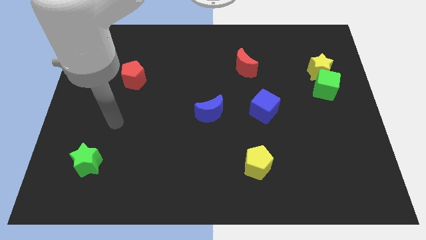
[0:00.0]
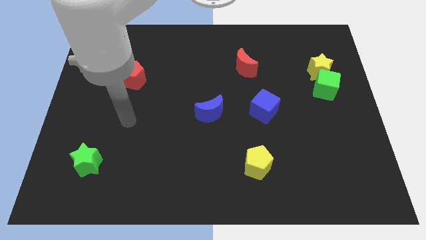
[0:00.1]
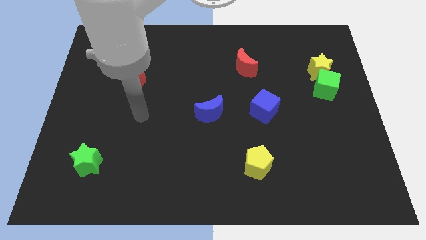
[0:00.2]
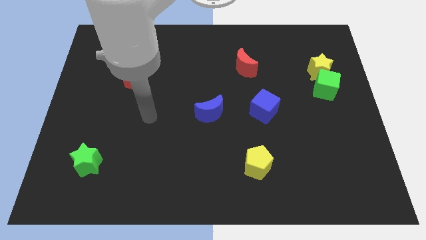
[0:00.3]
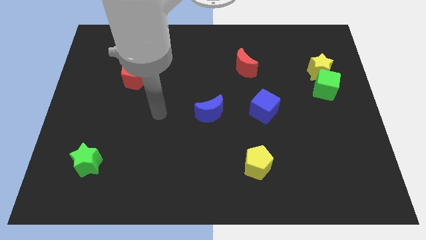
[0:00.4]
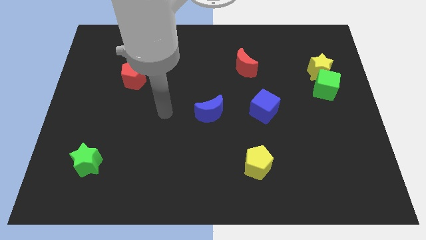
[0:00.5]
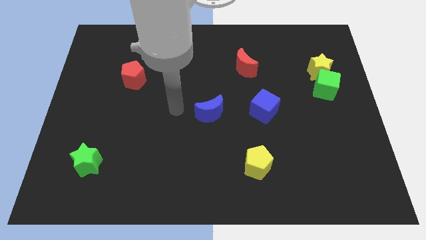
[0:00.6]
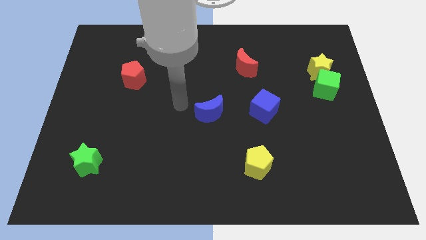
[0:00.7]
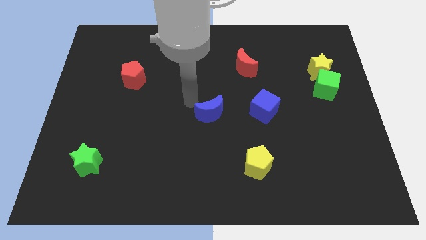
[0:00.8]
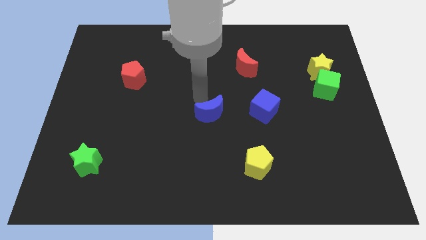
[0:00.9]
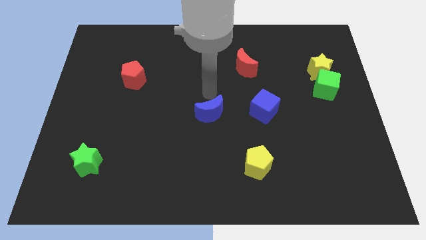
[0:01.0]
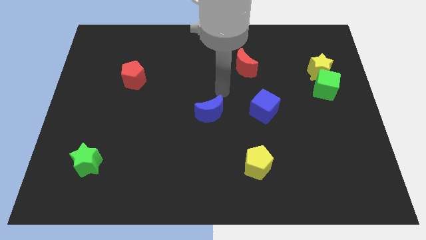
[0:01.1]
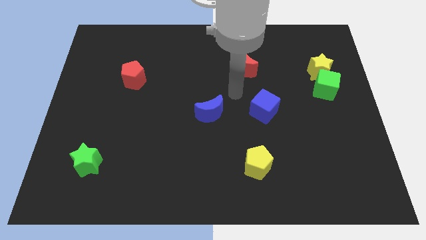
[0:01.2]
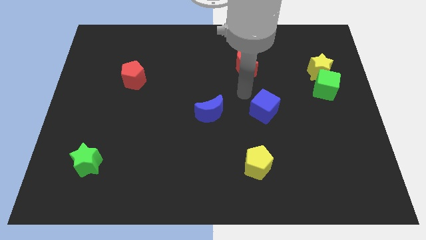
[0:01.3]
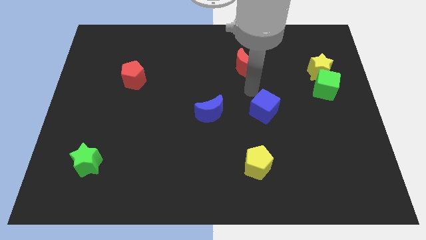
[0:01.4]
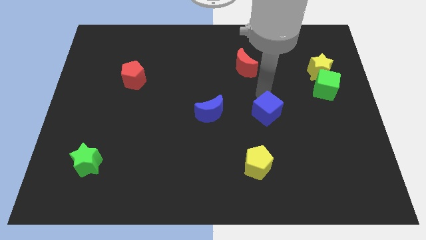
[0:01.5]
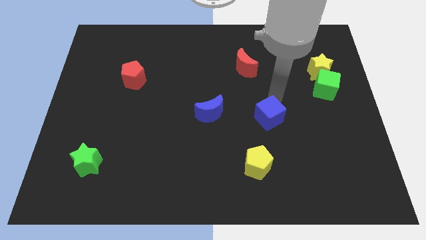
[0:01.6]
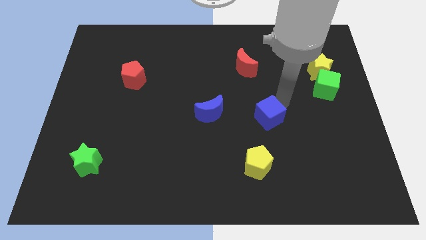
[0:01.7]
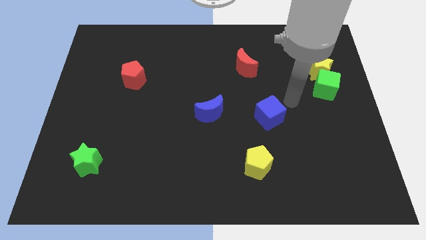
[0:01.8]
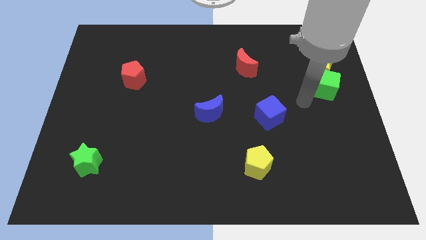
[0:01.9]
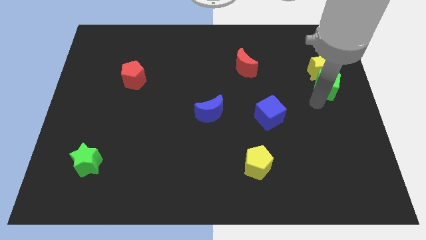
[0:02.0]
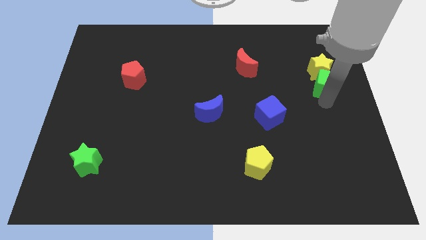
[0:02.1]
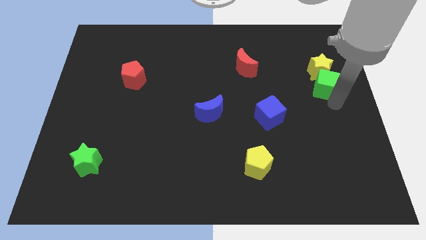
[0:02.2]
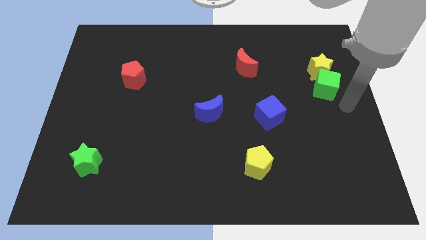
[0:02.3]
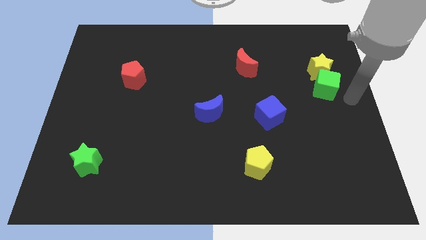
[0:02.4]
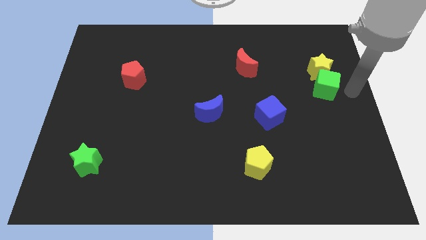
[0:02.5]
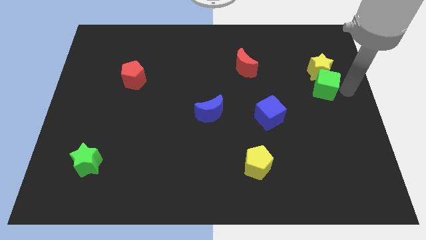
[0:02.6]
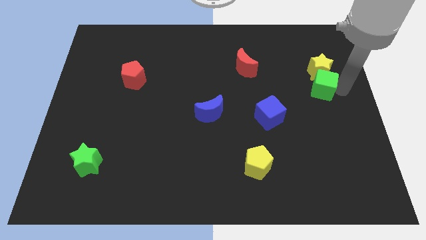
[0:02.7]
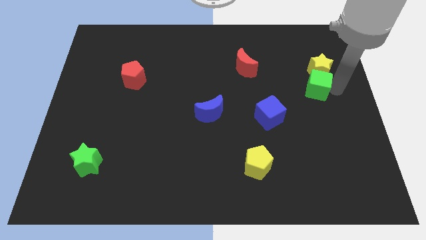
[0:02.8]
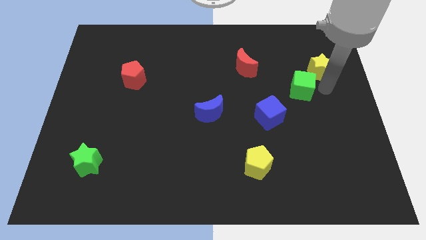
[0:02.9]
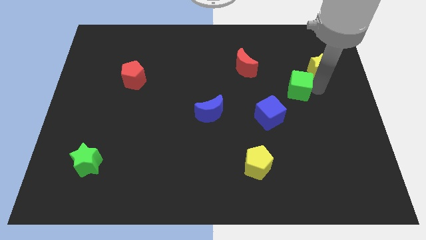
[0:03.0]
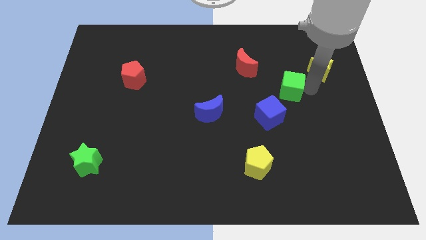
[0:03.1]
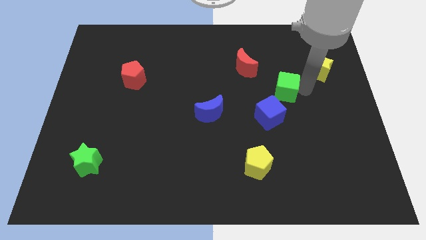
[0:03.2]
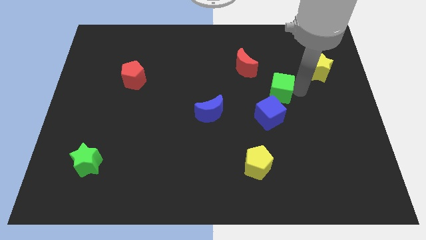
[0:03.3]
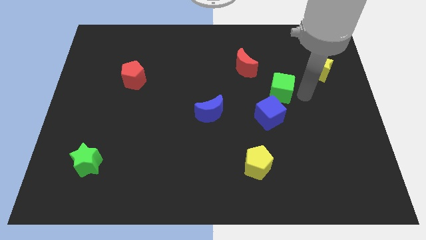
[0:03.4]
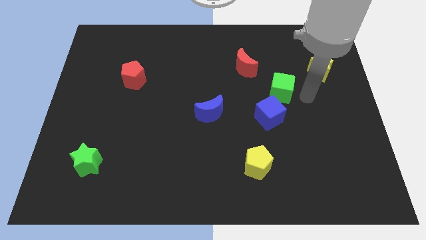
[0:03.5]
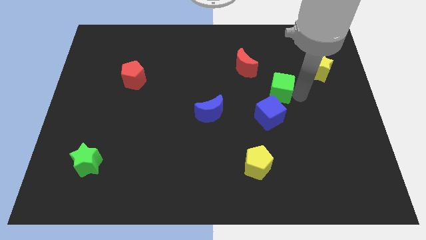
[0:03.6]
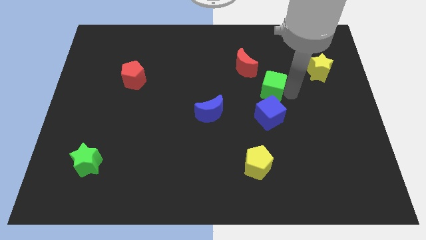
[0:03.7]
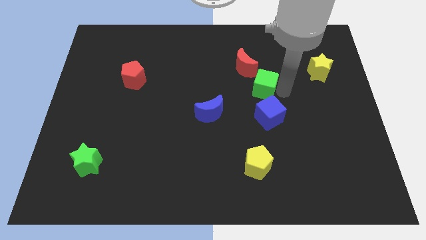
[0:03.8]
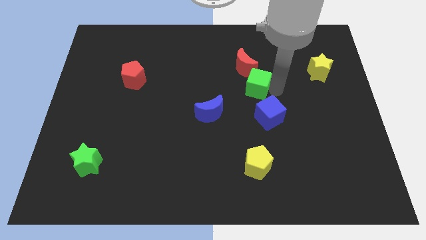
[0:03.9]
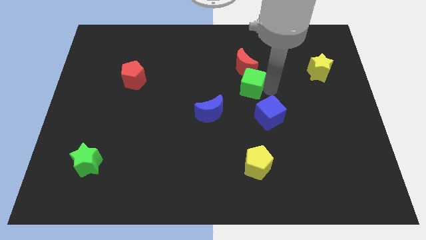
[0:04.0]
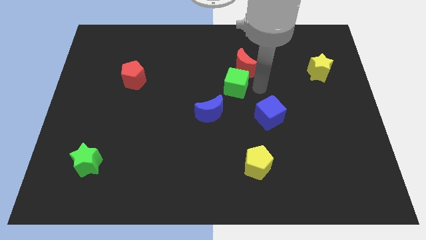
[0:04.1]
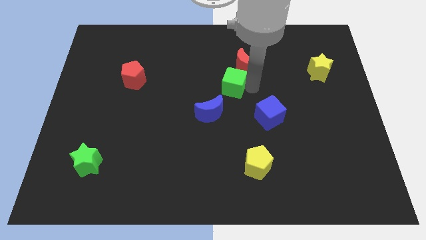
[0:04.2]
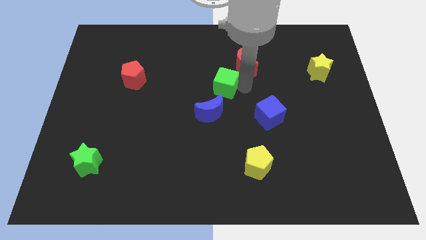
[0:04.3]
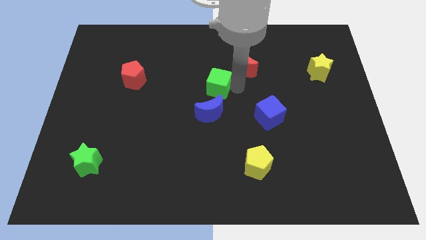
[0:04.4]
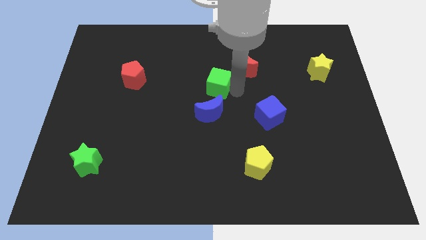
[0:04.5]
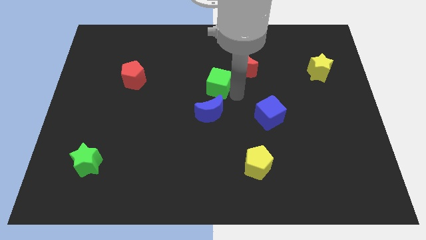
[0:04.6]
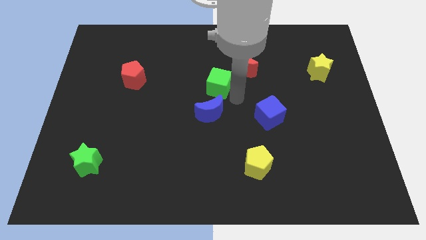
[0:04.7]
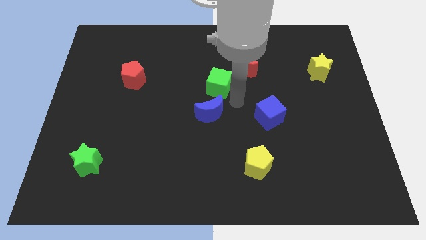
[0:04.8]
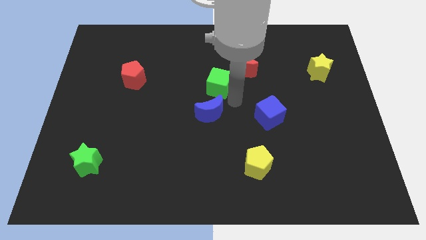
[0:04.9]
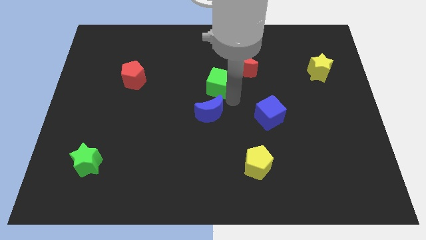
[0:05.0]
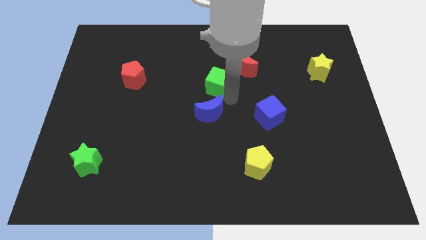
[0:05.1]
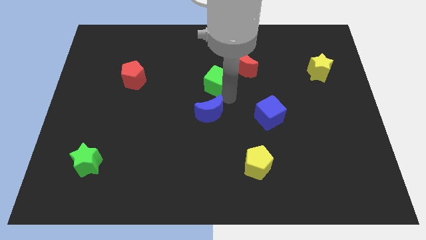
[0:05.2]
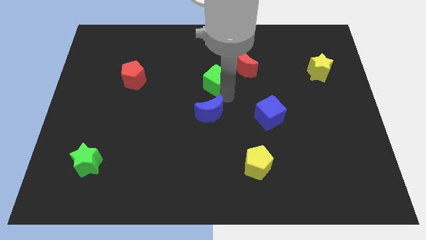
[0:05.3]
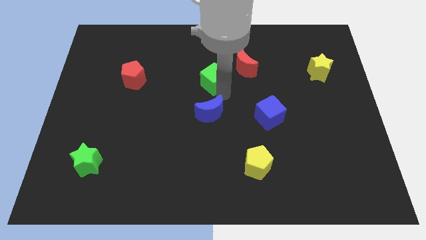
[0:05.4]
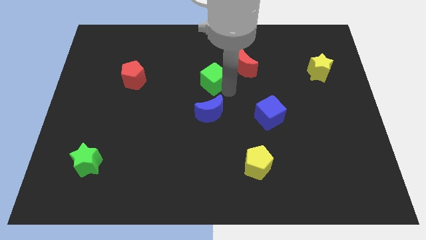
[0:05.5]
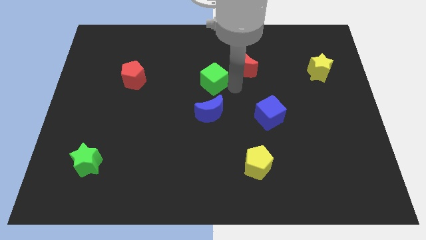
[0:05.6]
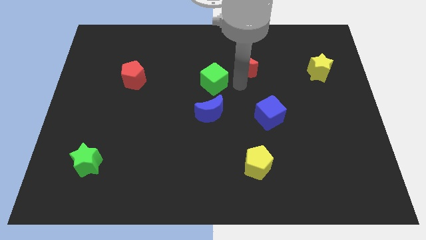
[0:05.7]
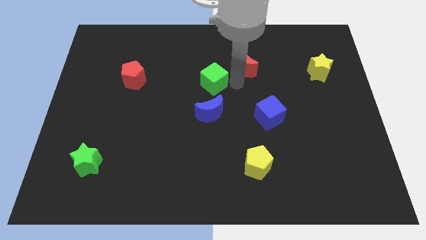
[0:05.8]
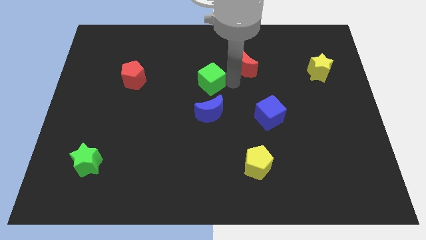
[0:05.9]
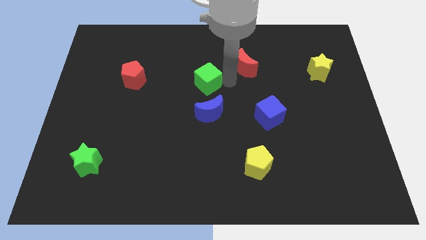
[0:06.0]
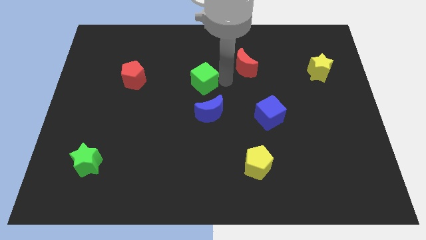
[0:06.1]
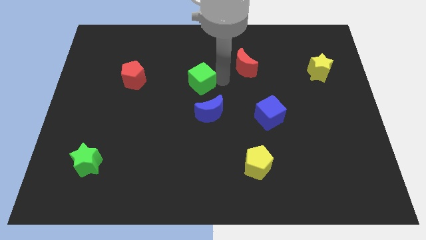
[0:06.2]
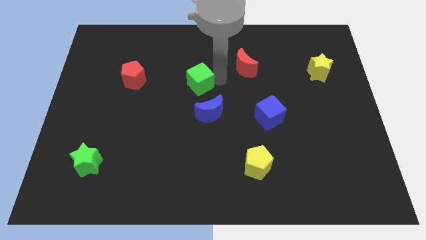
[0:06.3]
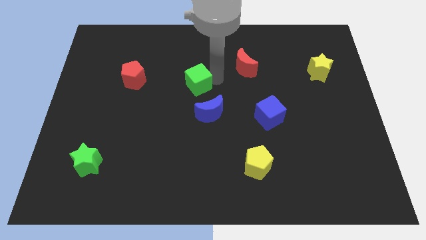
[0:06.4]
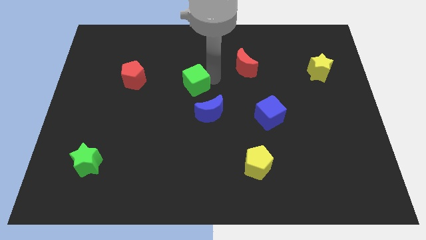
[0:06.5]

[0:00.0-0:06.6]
slide the green cube right of the red pentagon

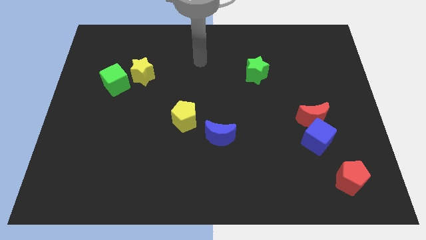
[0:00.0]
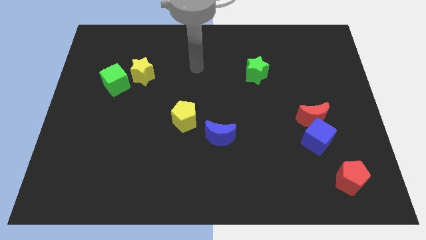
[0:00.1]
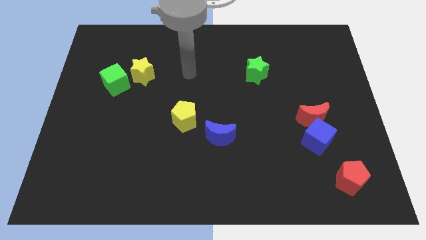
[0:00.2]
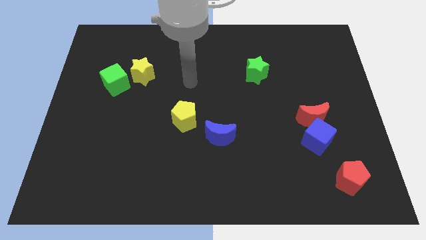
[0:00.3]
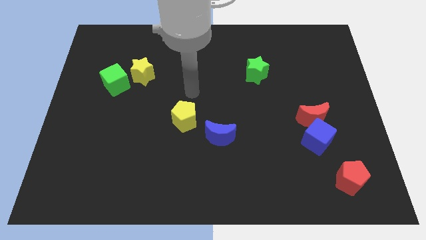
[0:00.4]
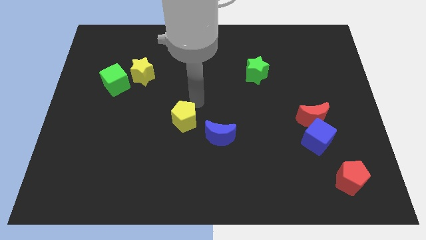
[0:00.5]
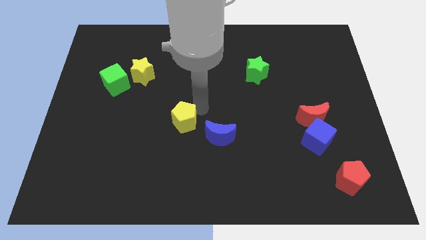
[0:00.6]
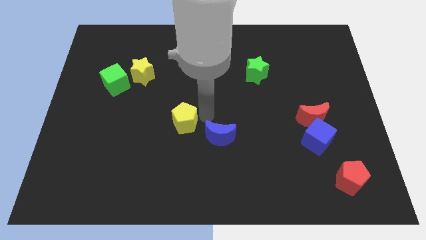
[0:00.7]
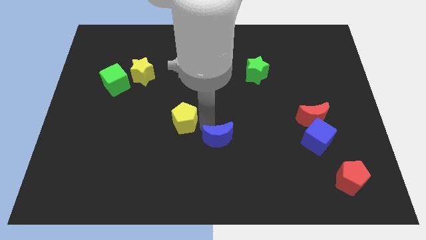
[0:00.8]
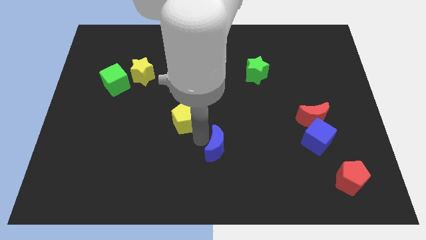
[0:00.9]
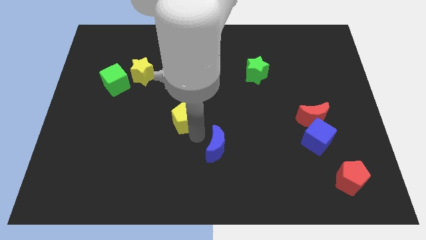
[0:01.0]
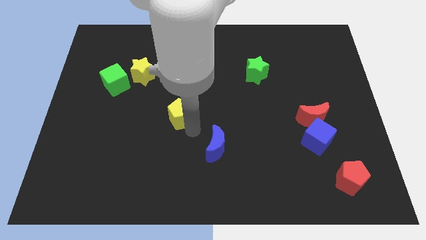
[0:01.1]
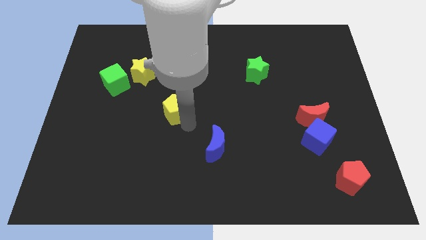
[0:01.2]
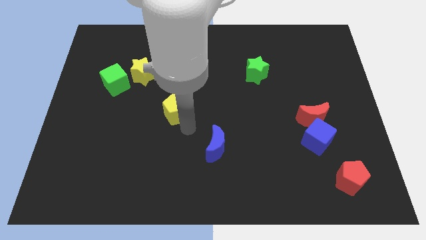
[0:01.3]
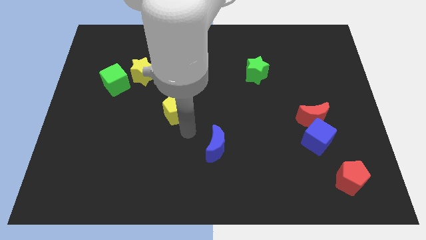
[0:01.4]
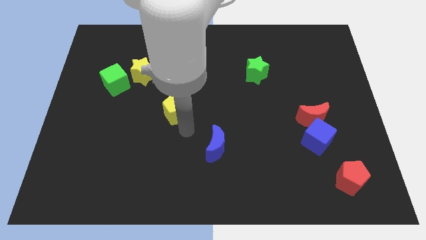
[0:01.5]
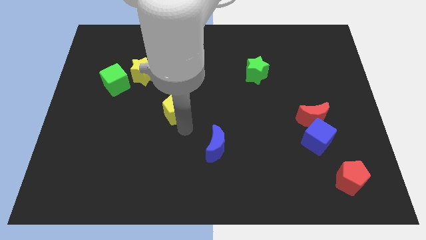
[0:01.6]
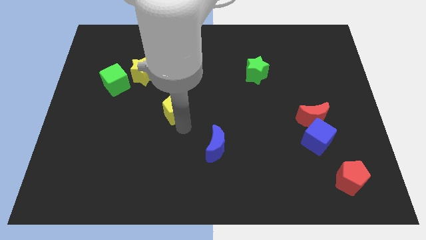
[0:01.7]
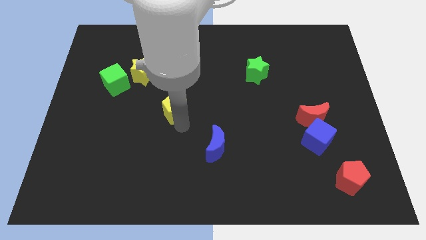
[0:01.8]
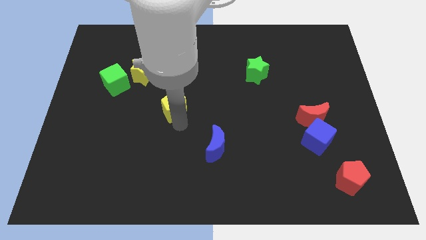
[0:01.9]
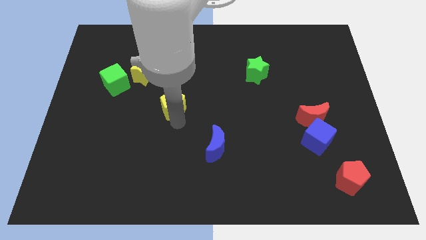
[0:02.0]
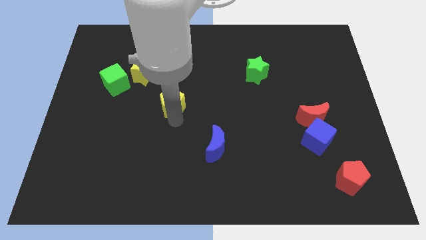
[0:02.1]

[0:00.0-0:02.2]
put the yellow pentagon to the bottom right of the yellow star
